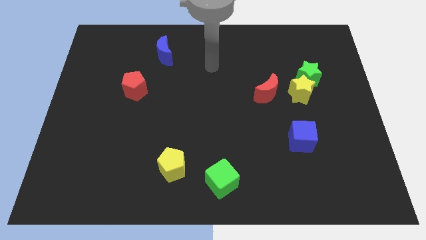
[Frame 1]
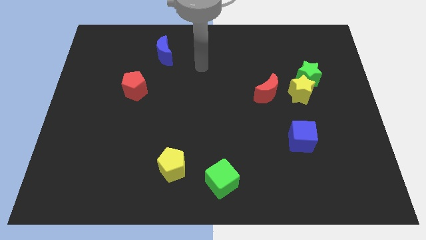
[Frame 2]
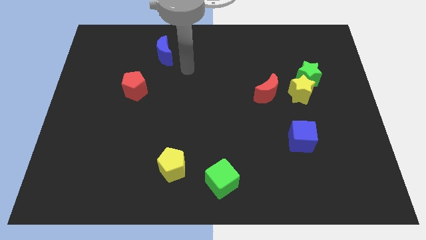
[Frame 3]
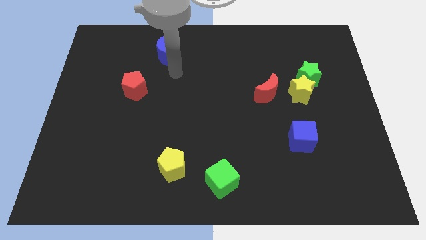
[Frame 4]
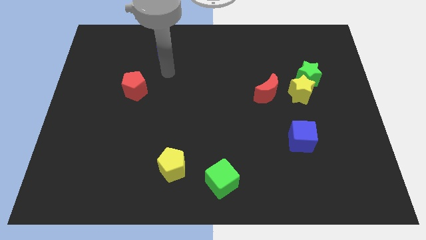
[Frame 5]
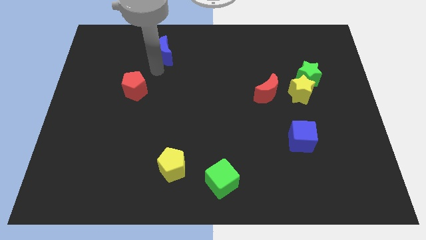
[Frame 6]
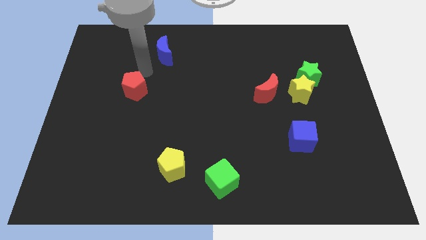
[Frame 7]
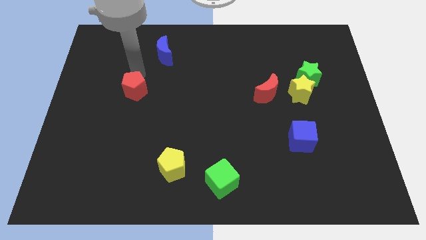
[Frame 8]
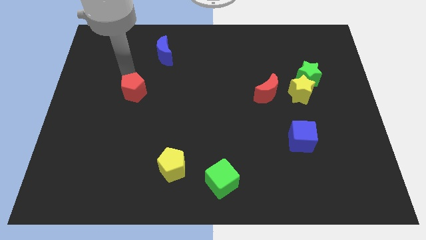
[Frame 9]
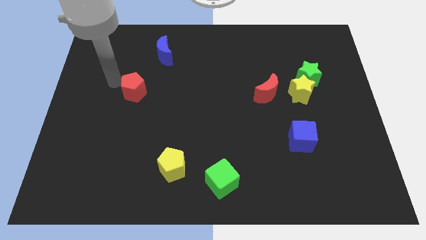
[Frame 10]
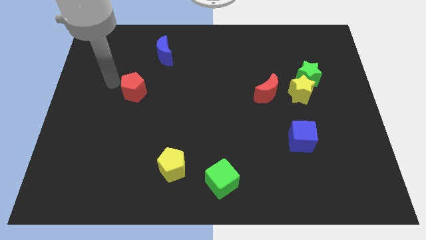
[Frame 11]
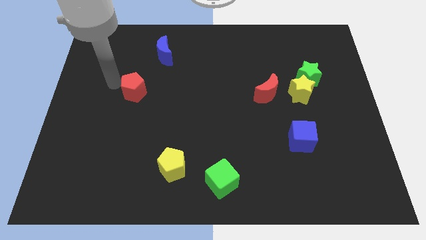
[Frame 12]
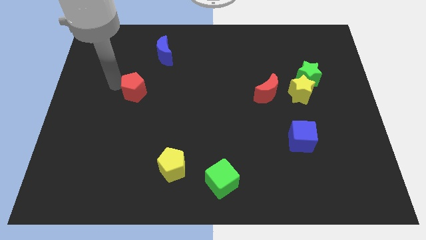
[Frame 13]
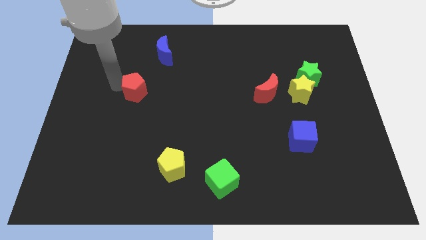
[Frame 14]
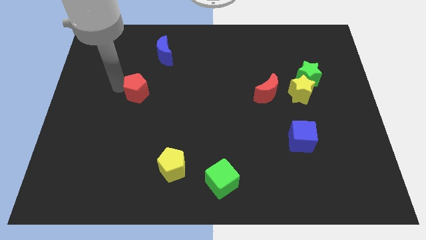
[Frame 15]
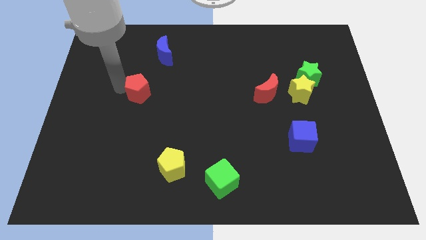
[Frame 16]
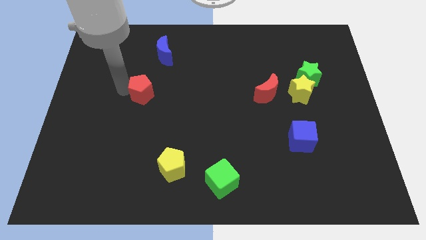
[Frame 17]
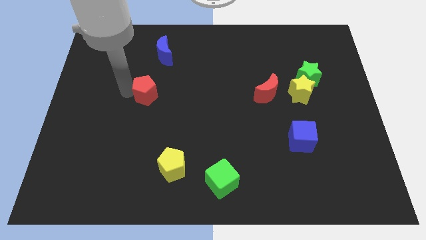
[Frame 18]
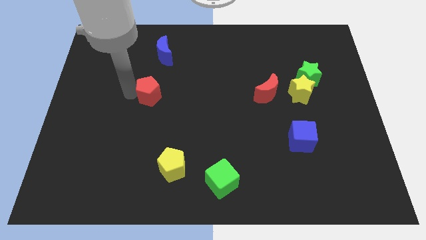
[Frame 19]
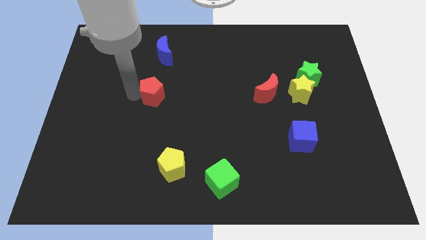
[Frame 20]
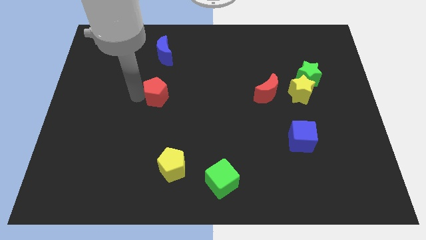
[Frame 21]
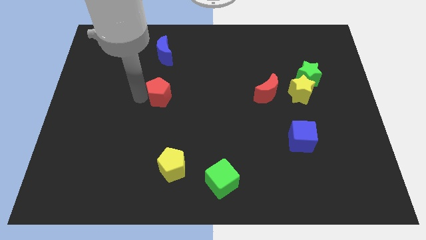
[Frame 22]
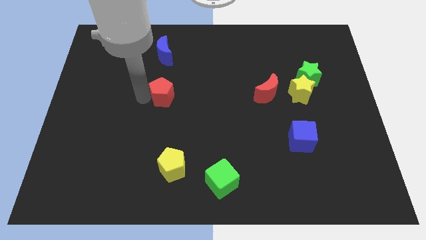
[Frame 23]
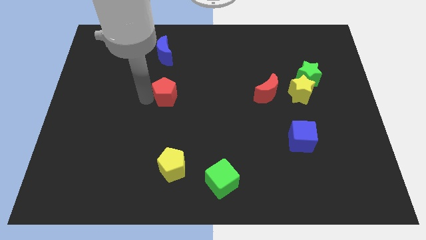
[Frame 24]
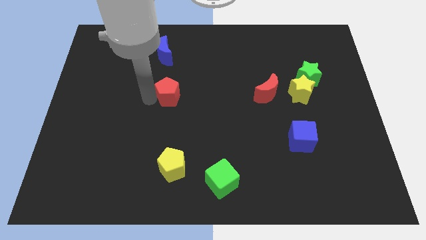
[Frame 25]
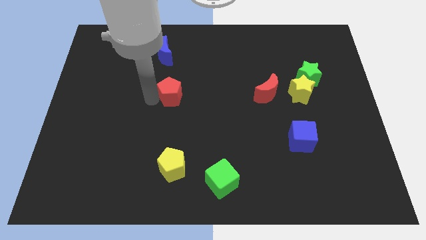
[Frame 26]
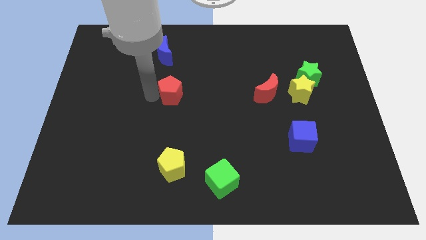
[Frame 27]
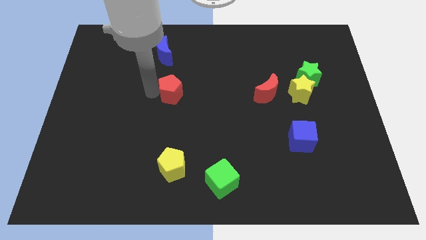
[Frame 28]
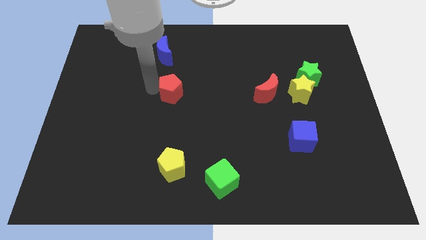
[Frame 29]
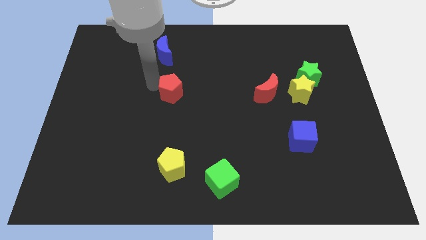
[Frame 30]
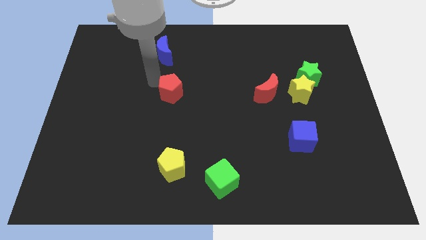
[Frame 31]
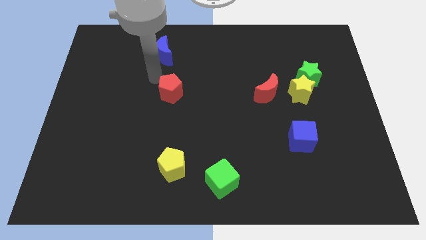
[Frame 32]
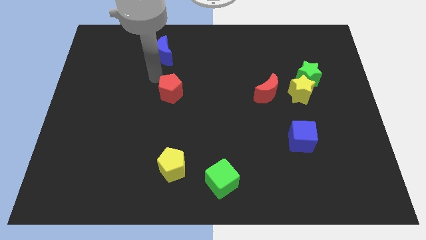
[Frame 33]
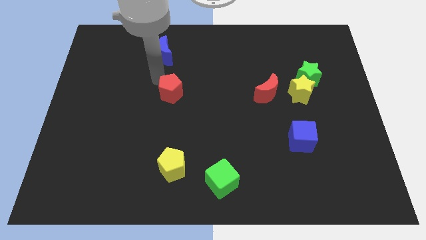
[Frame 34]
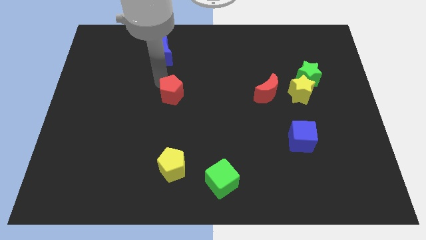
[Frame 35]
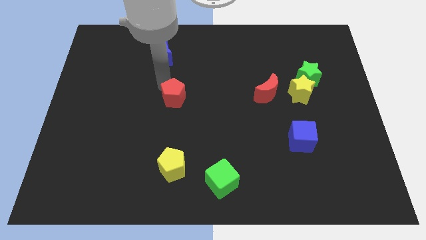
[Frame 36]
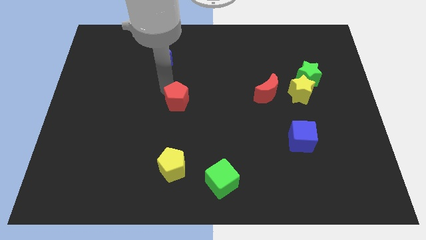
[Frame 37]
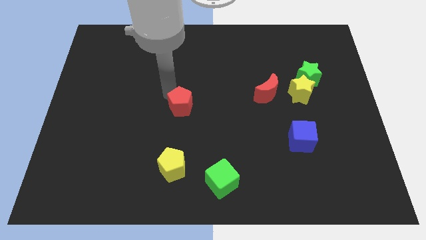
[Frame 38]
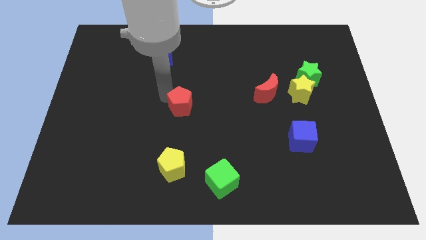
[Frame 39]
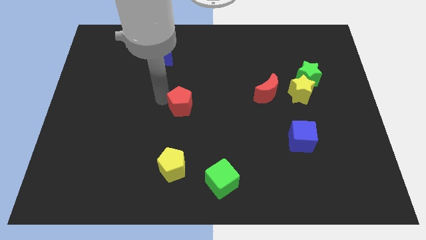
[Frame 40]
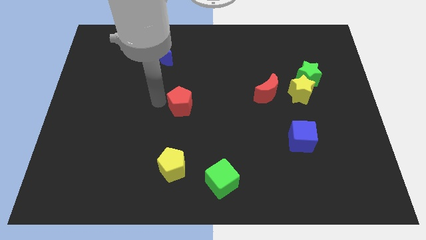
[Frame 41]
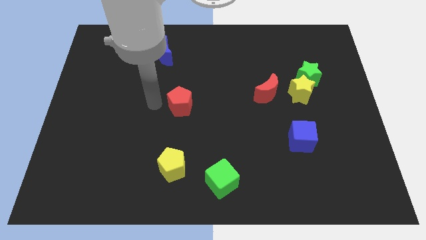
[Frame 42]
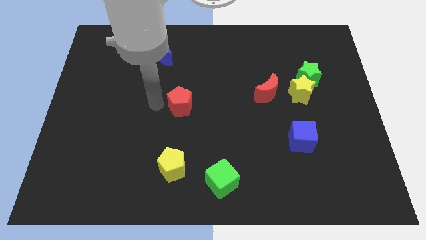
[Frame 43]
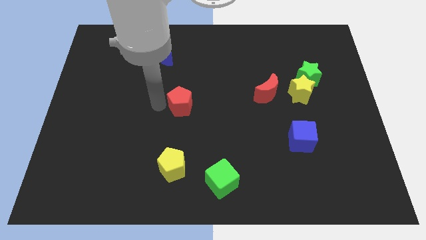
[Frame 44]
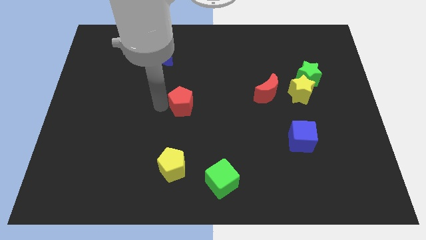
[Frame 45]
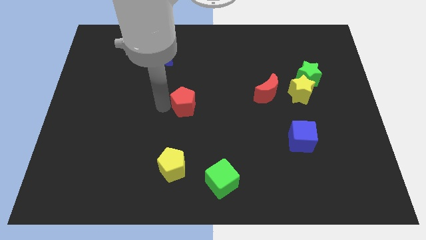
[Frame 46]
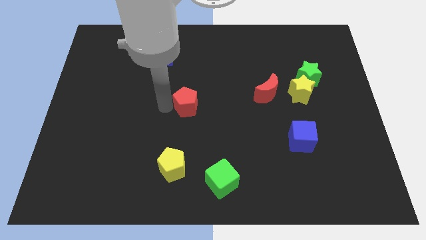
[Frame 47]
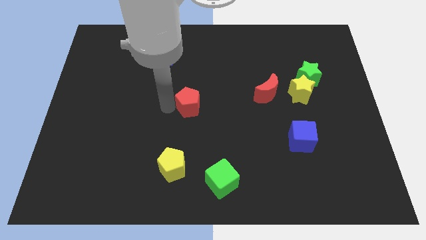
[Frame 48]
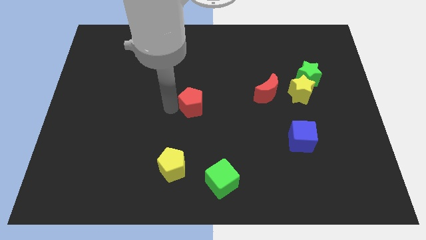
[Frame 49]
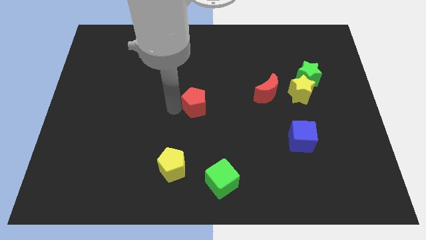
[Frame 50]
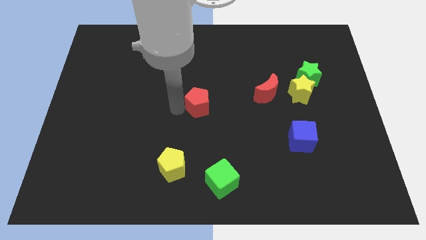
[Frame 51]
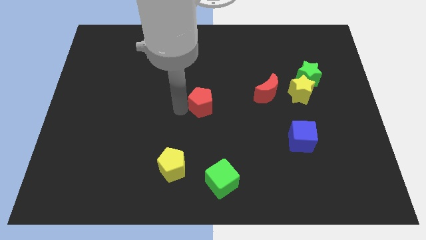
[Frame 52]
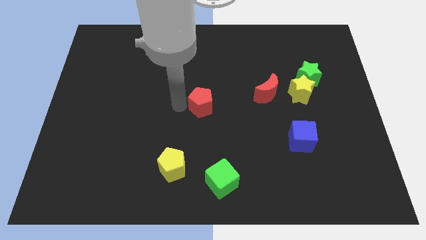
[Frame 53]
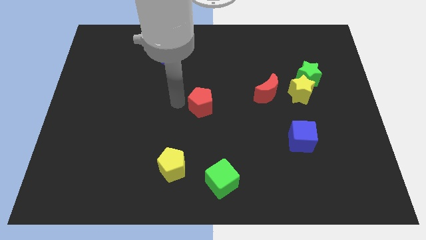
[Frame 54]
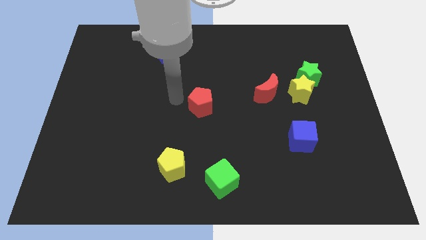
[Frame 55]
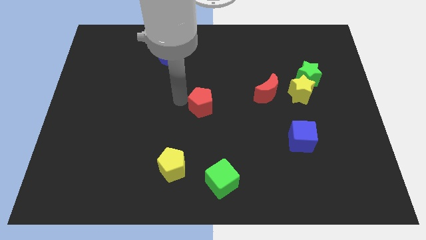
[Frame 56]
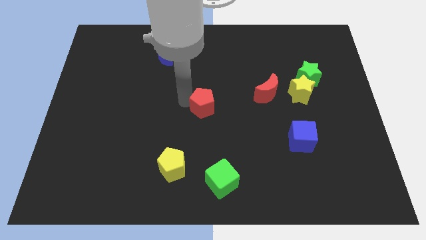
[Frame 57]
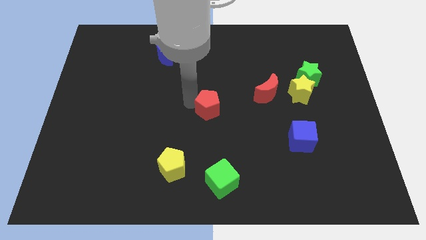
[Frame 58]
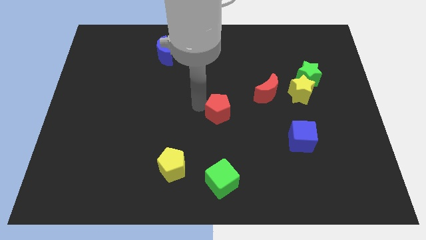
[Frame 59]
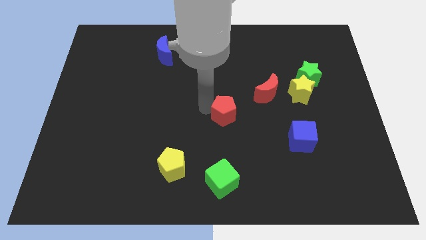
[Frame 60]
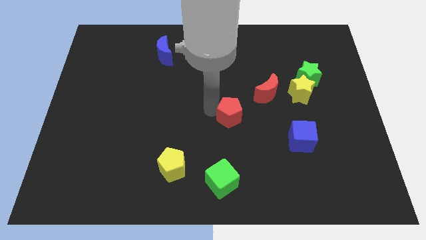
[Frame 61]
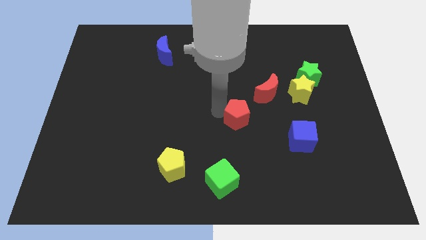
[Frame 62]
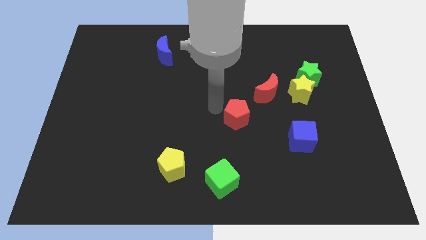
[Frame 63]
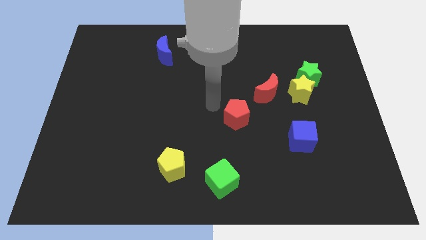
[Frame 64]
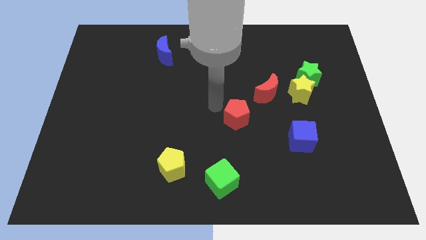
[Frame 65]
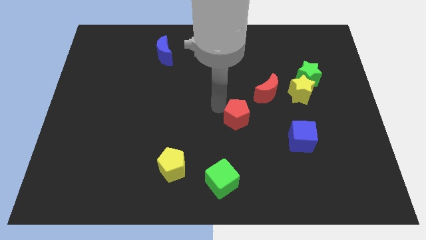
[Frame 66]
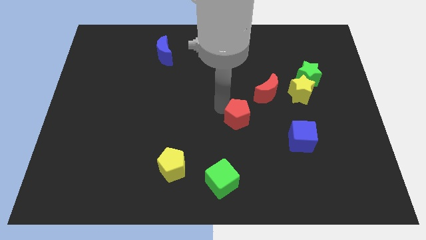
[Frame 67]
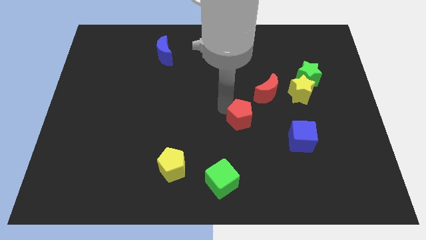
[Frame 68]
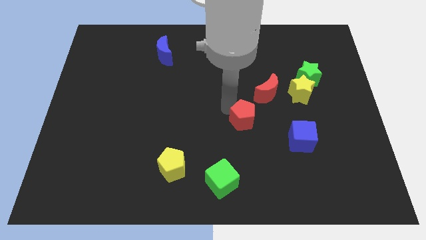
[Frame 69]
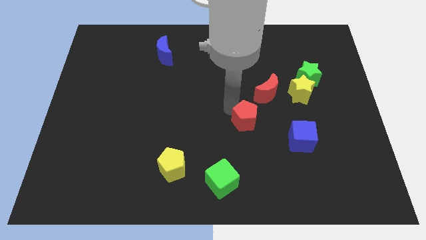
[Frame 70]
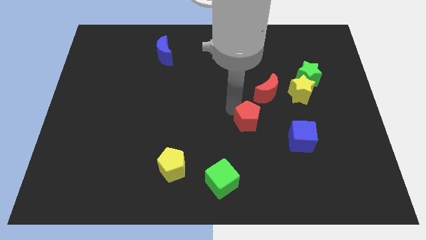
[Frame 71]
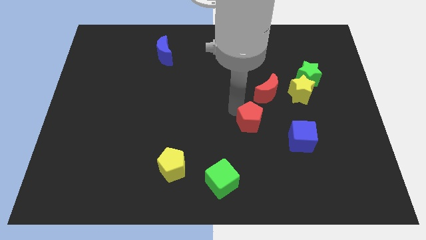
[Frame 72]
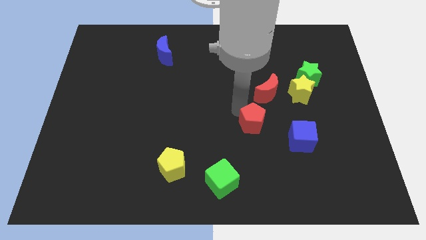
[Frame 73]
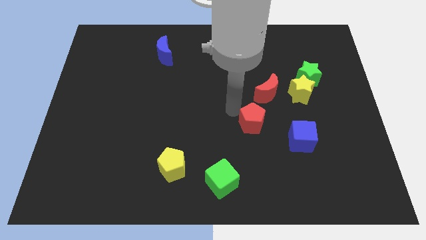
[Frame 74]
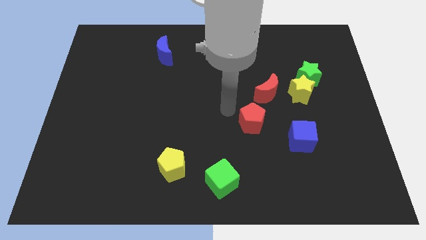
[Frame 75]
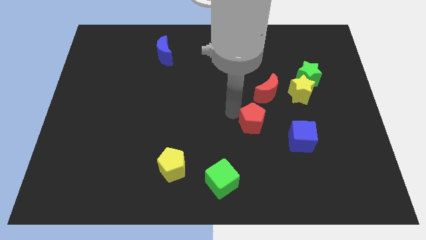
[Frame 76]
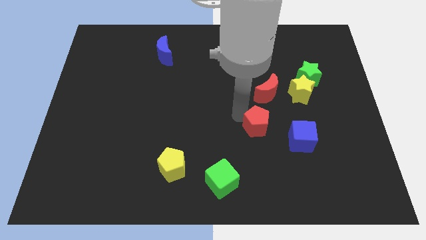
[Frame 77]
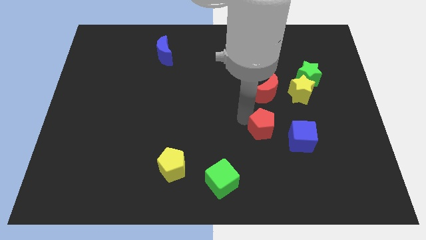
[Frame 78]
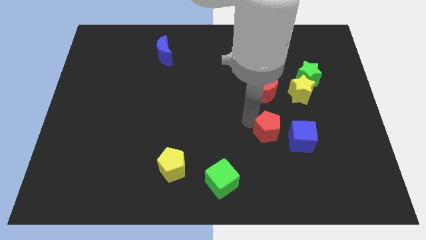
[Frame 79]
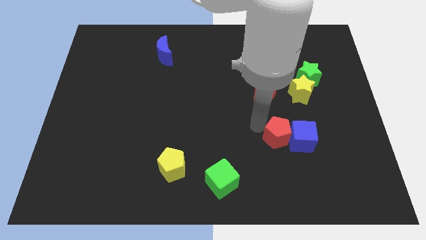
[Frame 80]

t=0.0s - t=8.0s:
put the red pentagon next to the blue cube
